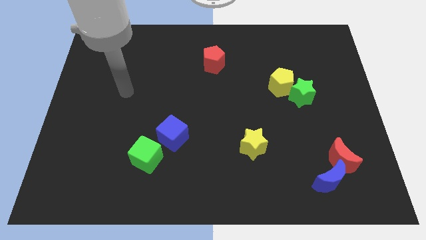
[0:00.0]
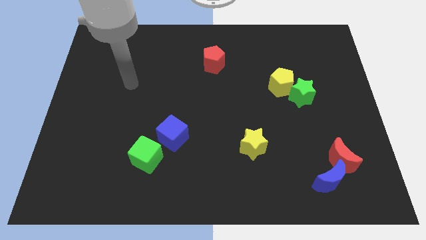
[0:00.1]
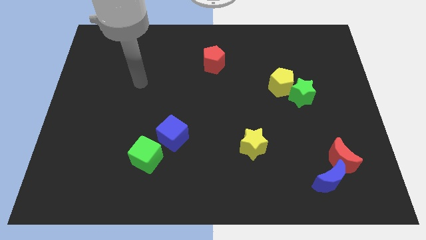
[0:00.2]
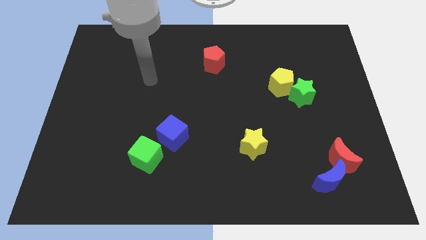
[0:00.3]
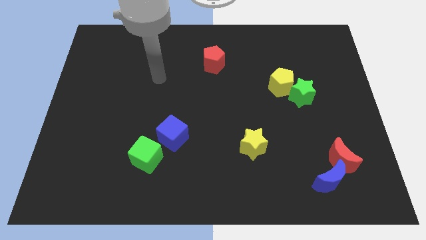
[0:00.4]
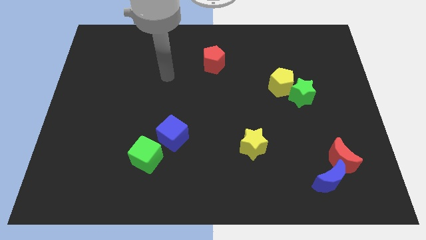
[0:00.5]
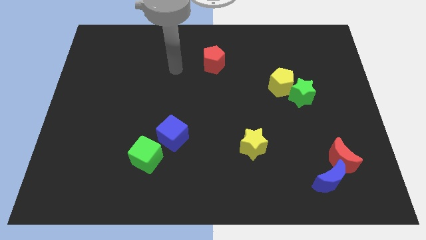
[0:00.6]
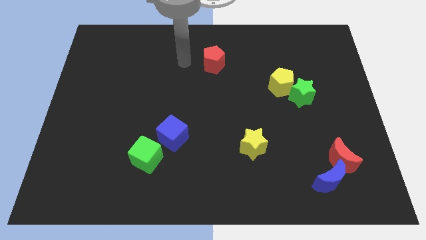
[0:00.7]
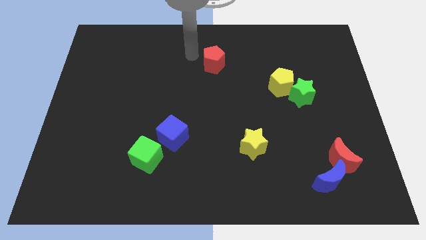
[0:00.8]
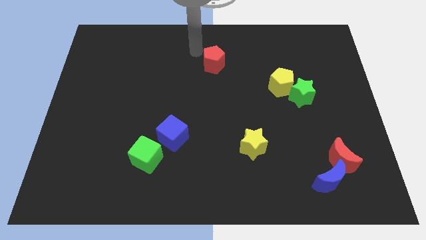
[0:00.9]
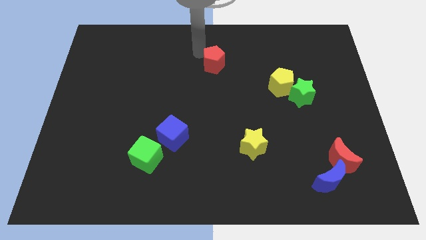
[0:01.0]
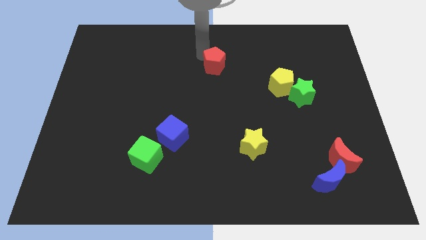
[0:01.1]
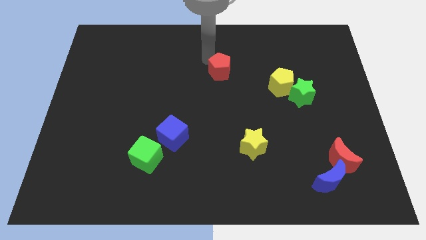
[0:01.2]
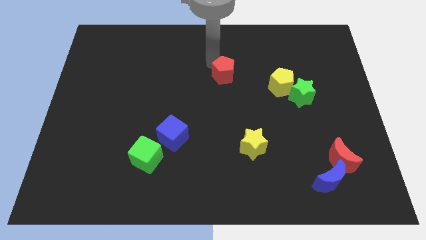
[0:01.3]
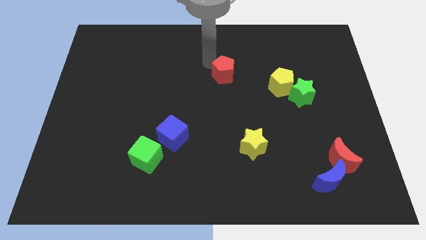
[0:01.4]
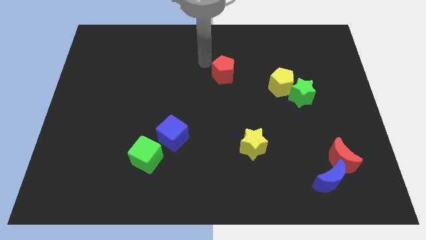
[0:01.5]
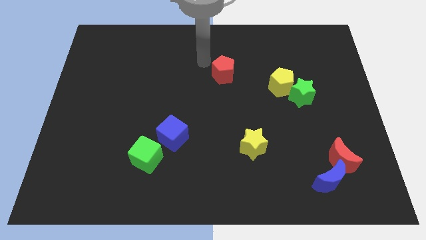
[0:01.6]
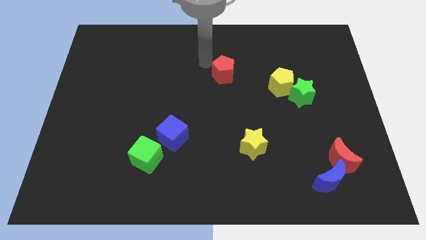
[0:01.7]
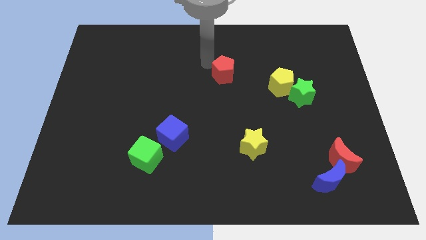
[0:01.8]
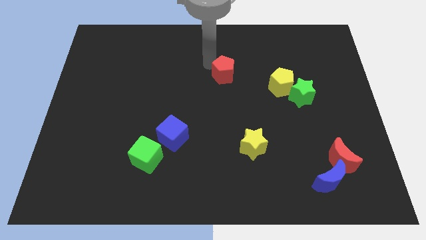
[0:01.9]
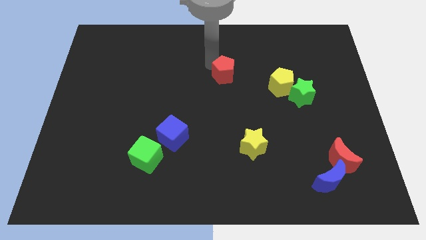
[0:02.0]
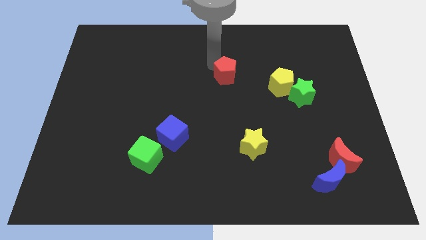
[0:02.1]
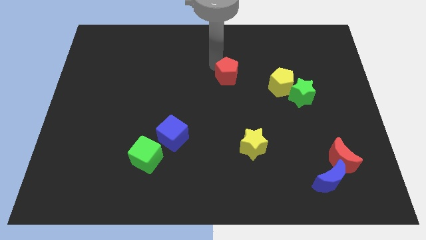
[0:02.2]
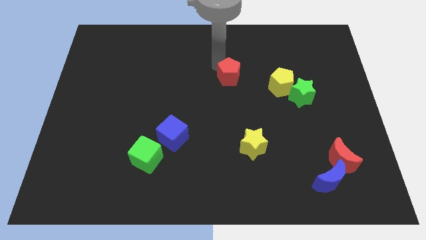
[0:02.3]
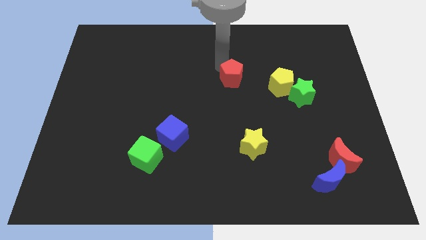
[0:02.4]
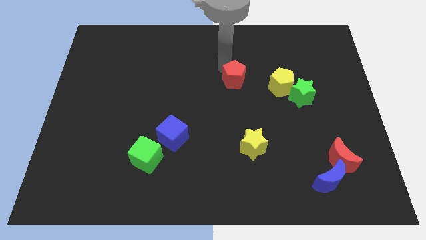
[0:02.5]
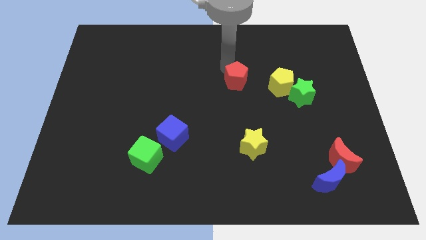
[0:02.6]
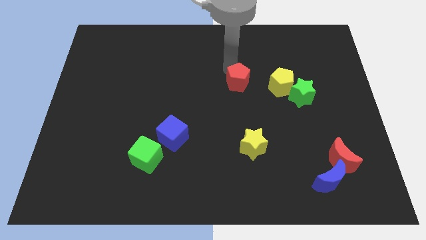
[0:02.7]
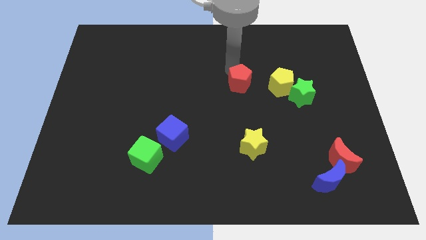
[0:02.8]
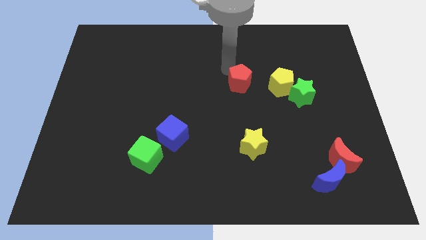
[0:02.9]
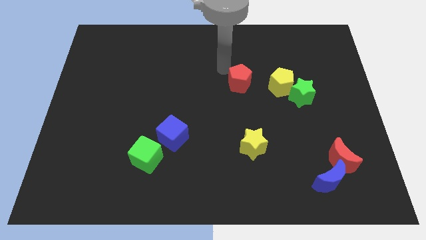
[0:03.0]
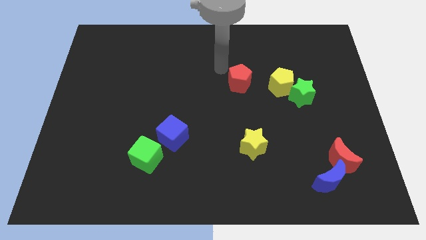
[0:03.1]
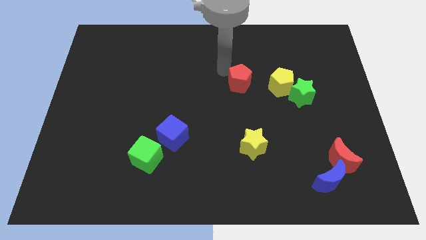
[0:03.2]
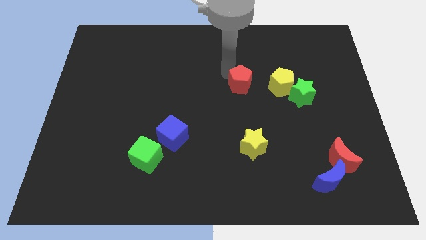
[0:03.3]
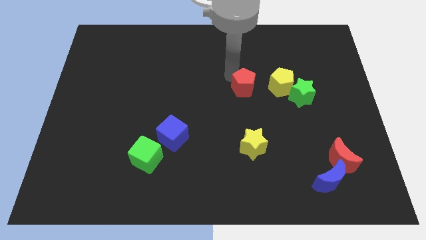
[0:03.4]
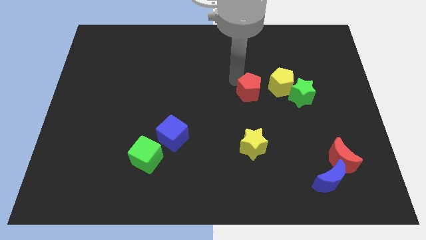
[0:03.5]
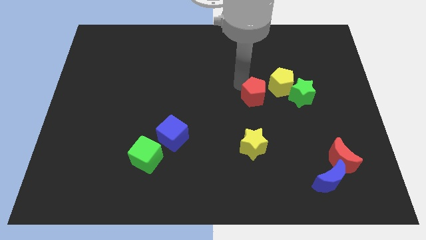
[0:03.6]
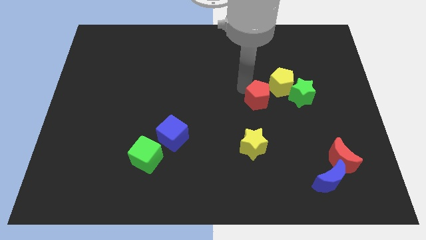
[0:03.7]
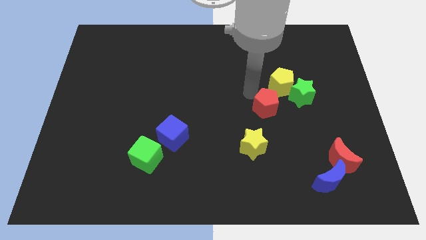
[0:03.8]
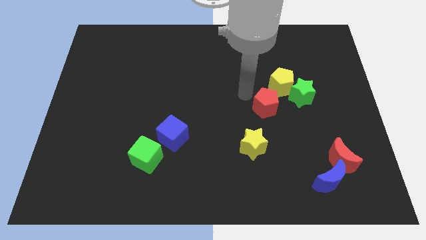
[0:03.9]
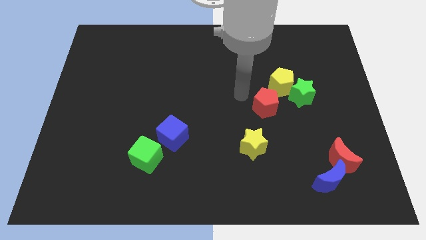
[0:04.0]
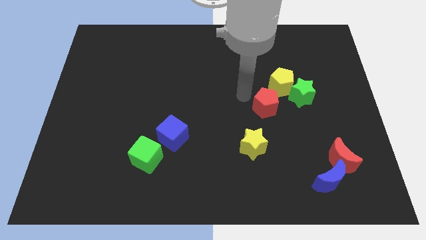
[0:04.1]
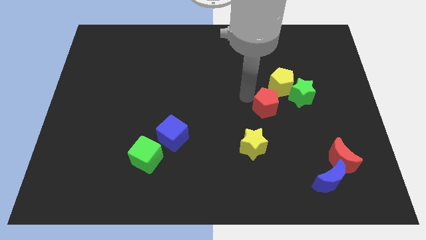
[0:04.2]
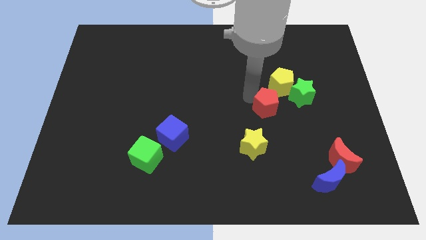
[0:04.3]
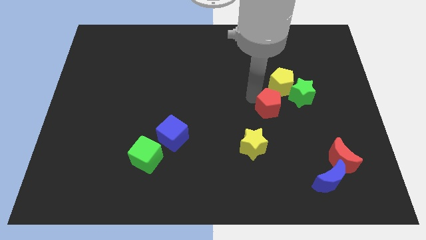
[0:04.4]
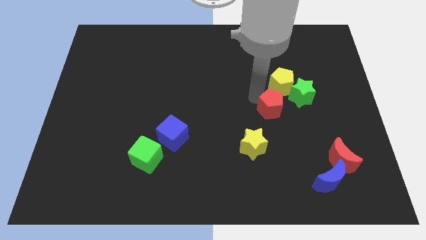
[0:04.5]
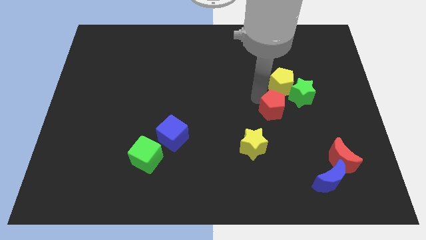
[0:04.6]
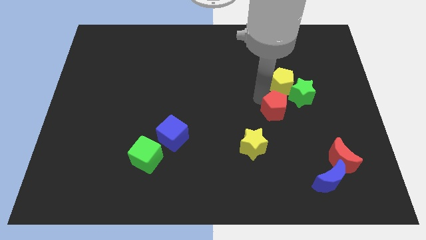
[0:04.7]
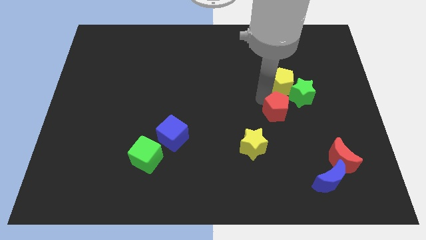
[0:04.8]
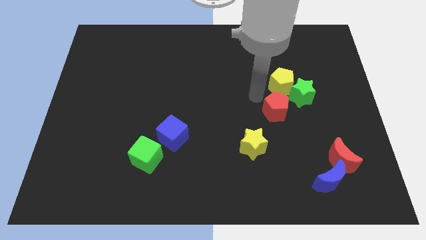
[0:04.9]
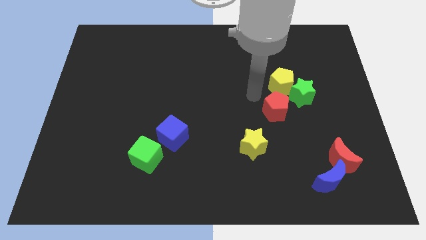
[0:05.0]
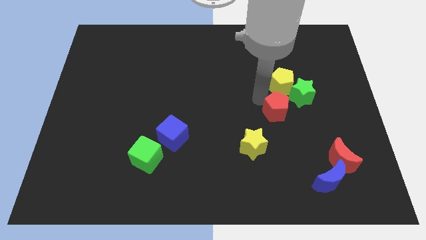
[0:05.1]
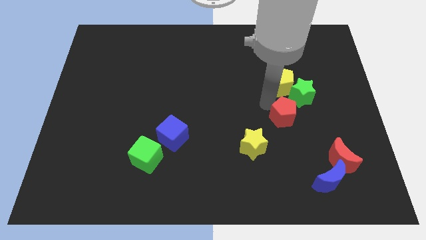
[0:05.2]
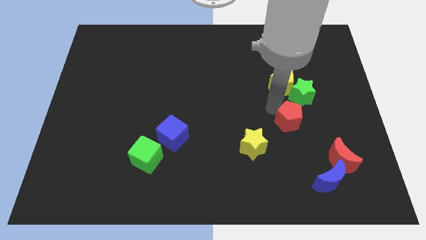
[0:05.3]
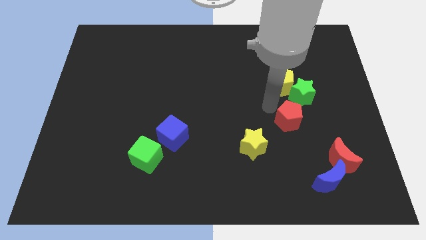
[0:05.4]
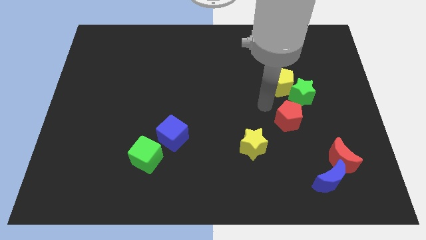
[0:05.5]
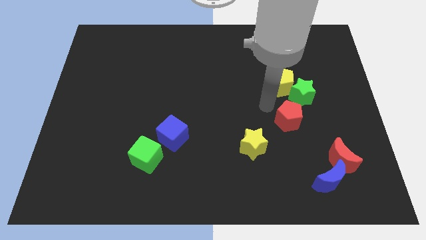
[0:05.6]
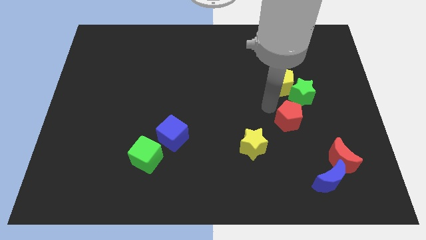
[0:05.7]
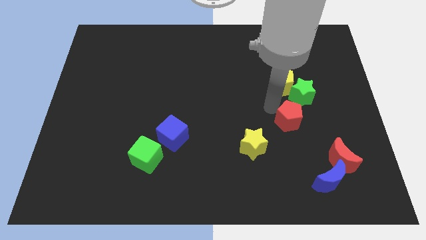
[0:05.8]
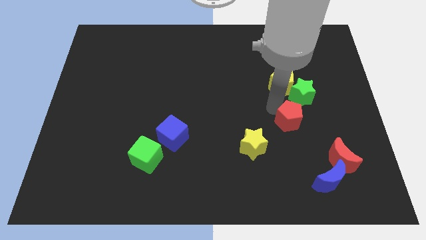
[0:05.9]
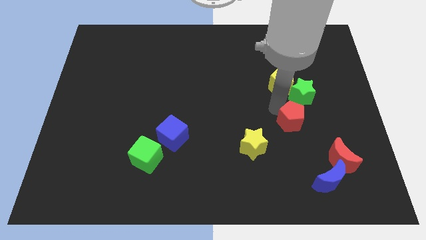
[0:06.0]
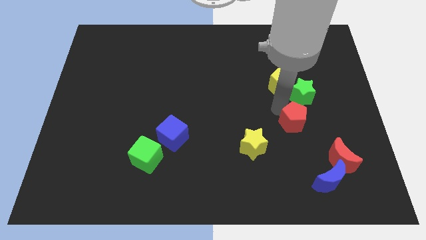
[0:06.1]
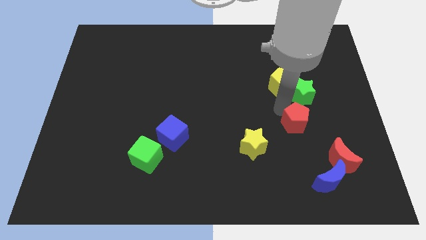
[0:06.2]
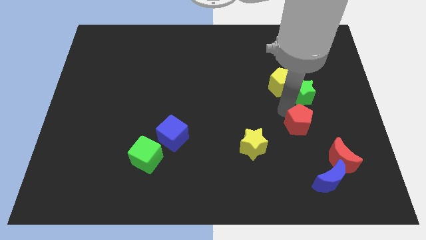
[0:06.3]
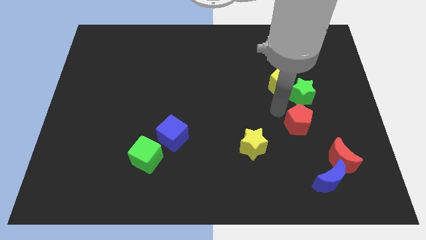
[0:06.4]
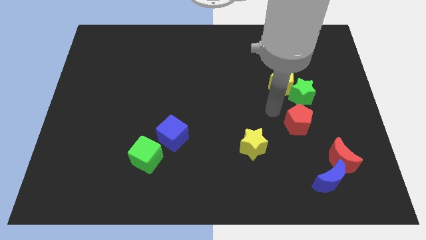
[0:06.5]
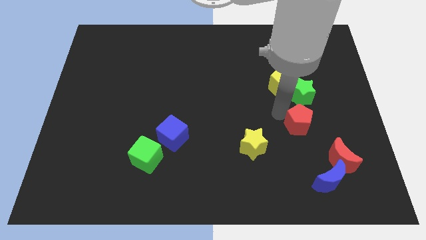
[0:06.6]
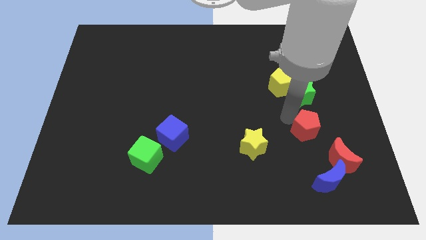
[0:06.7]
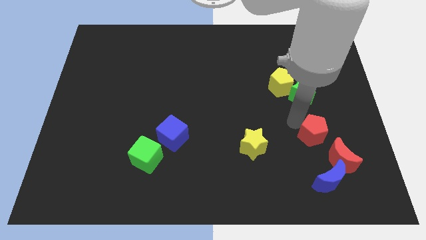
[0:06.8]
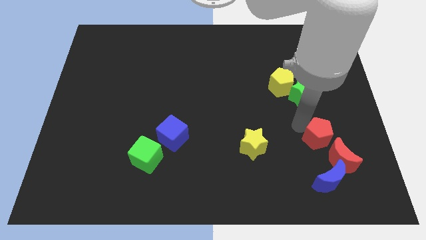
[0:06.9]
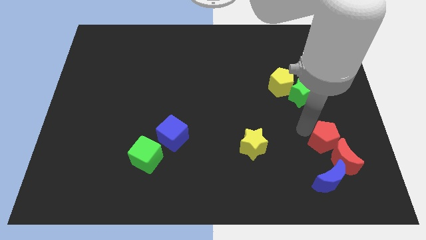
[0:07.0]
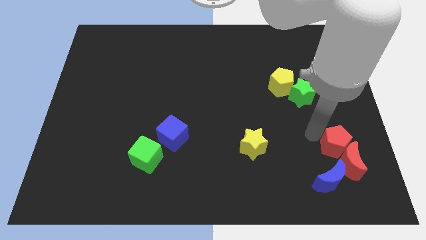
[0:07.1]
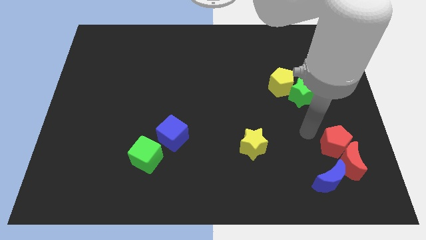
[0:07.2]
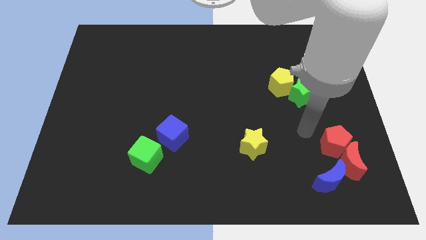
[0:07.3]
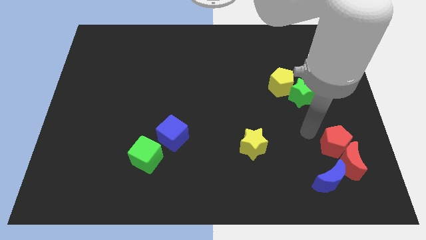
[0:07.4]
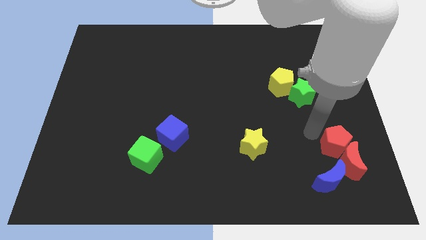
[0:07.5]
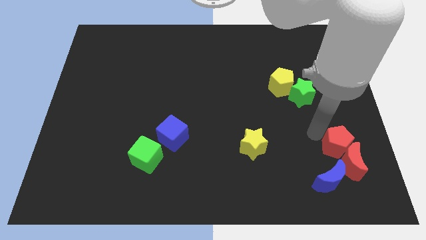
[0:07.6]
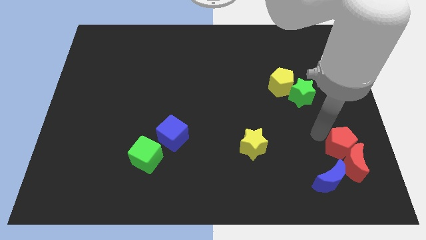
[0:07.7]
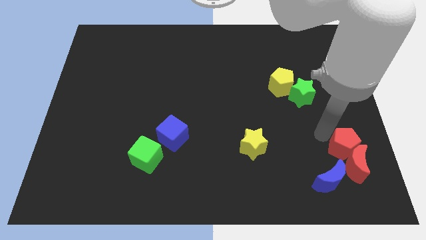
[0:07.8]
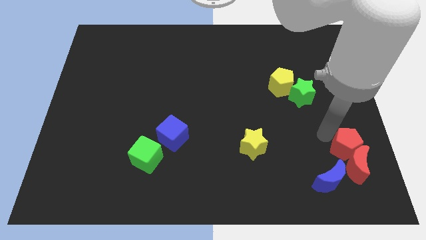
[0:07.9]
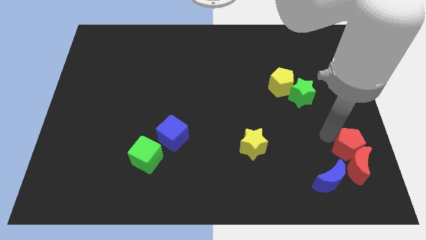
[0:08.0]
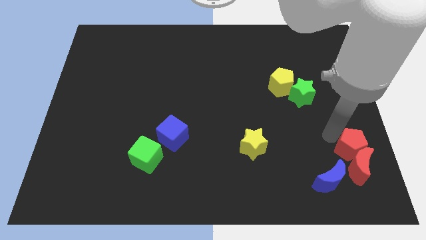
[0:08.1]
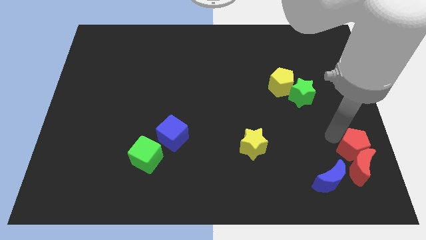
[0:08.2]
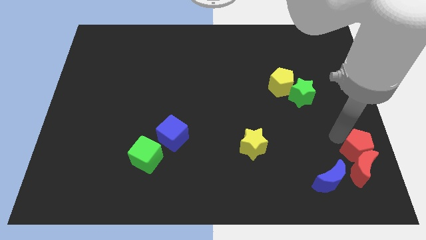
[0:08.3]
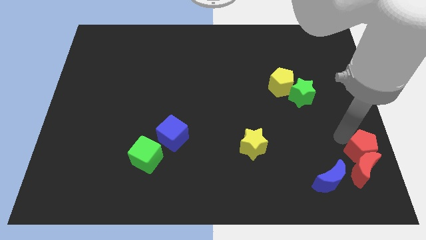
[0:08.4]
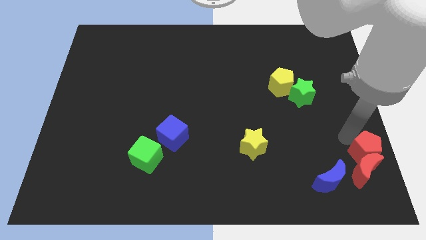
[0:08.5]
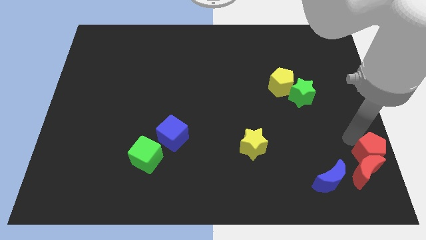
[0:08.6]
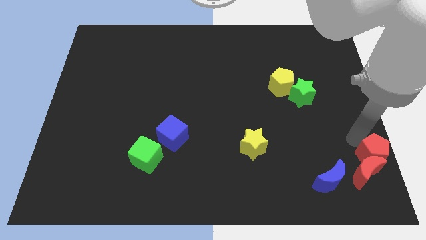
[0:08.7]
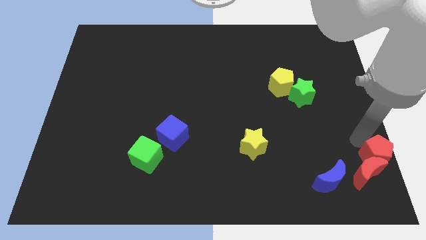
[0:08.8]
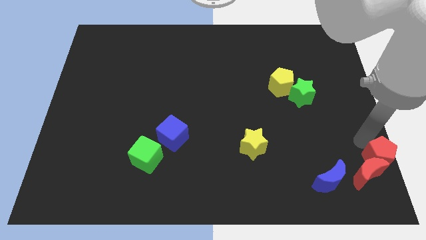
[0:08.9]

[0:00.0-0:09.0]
put the red pentagon to the lower right corner
